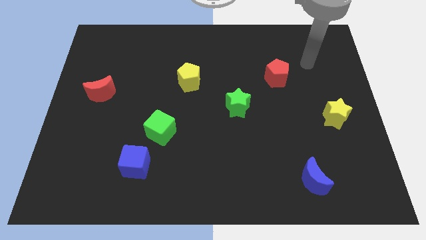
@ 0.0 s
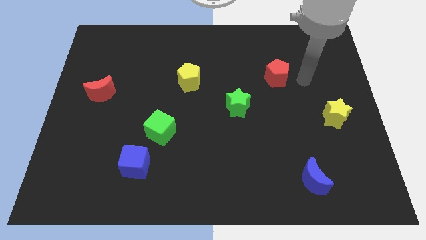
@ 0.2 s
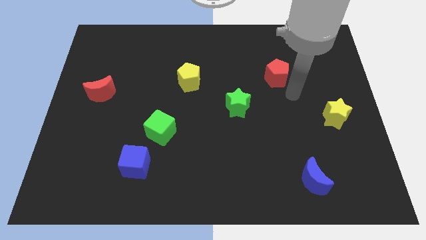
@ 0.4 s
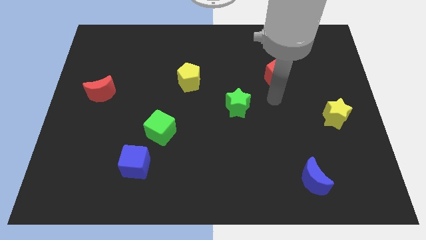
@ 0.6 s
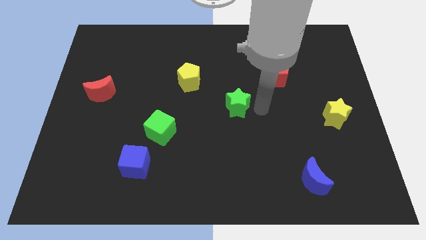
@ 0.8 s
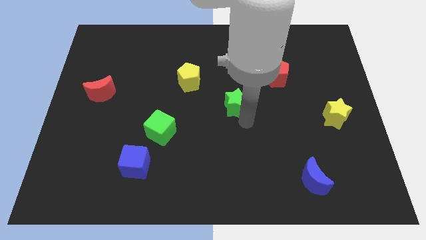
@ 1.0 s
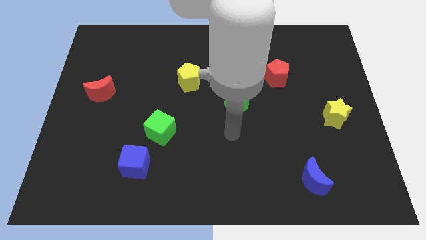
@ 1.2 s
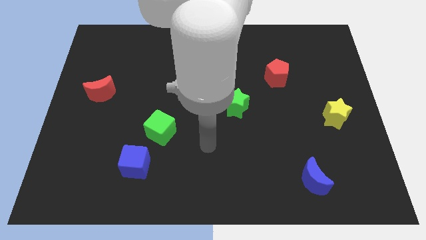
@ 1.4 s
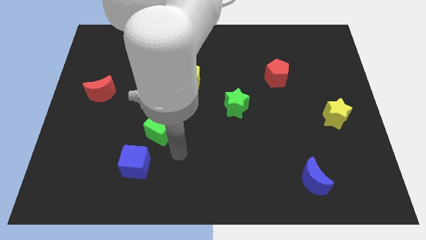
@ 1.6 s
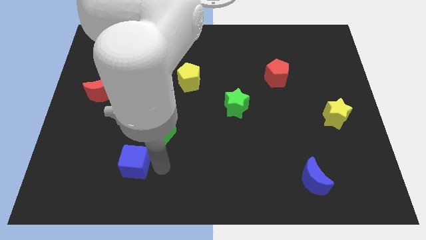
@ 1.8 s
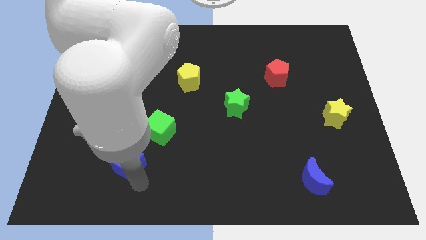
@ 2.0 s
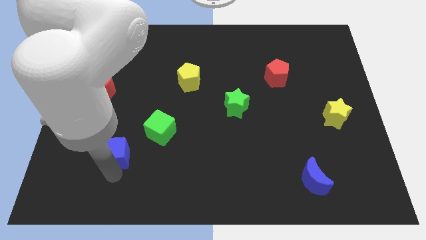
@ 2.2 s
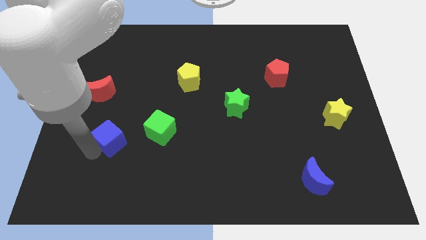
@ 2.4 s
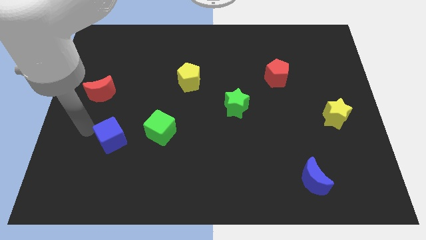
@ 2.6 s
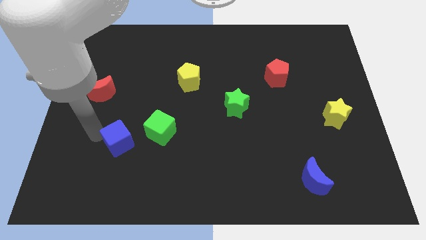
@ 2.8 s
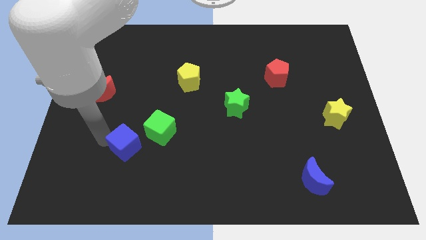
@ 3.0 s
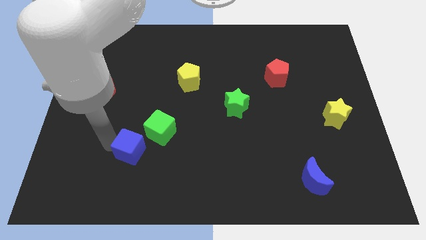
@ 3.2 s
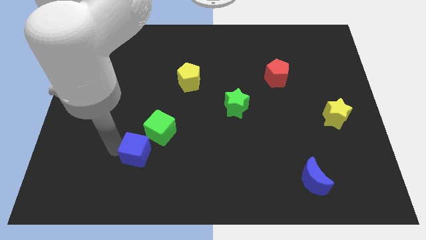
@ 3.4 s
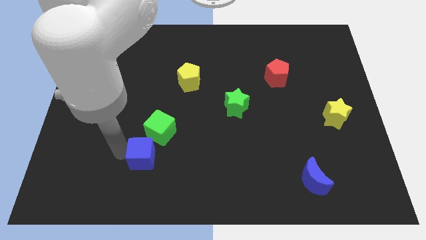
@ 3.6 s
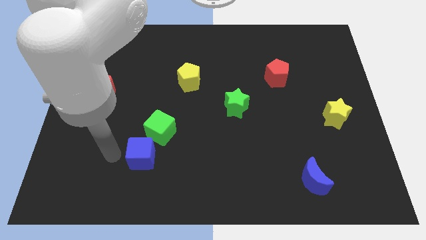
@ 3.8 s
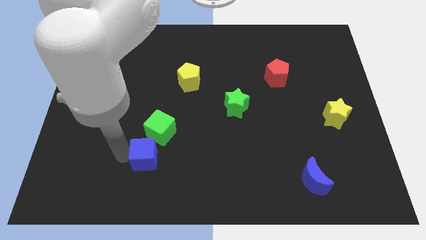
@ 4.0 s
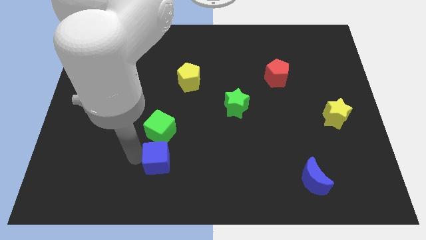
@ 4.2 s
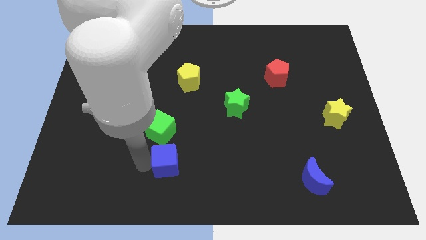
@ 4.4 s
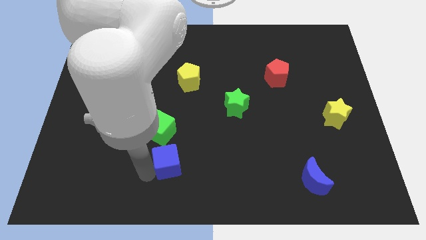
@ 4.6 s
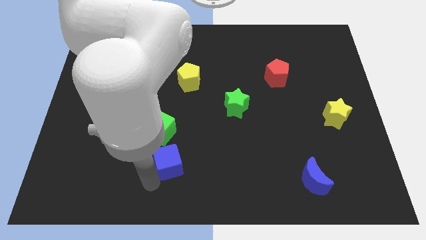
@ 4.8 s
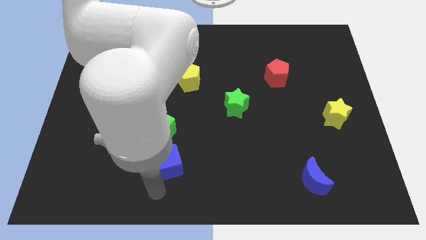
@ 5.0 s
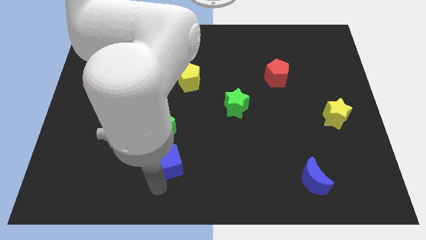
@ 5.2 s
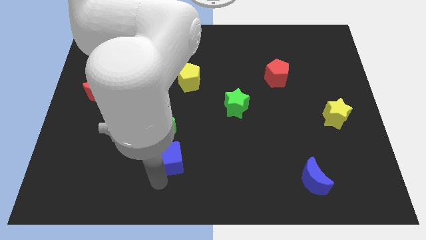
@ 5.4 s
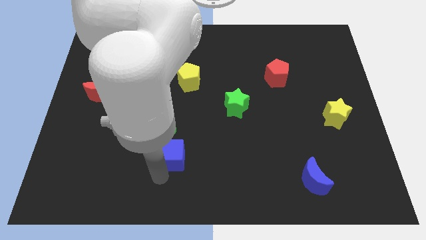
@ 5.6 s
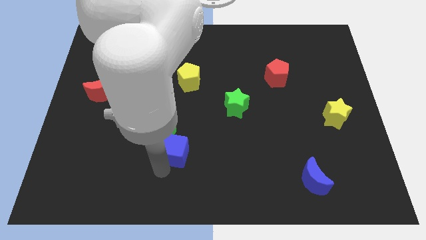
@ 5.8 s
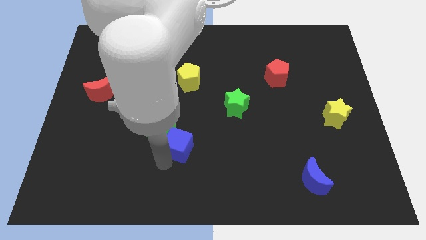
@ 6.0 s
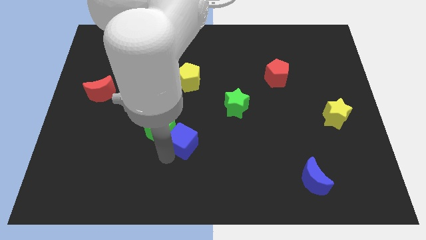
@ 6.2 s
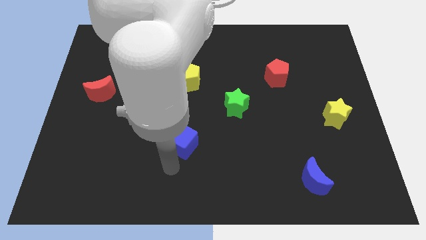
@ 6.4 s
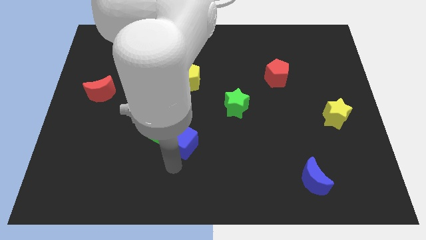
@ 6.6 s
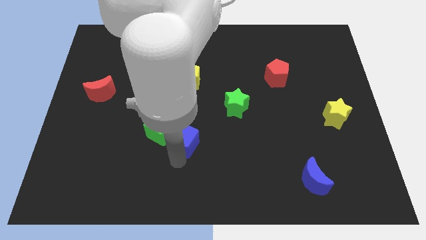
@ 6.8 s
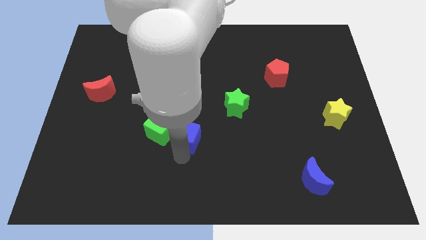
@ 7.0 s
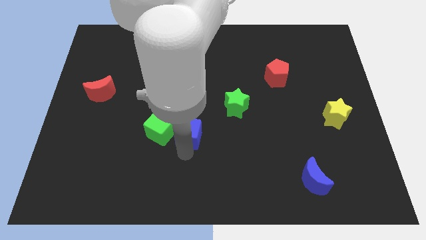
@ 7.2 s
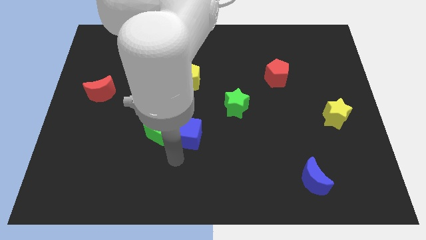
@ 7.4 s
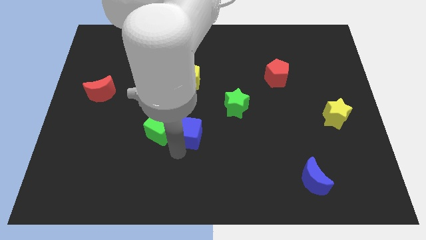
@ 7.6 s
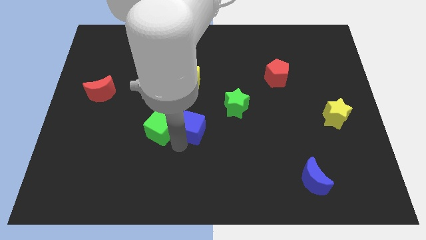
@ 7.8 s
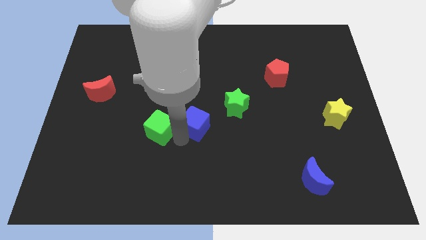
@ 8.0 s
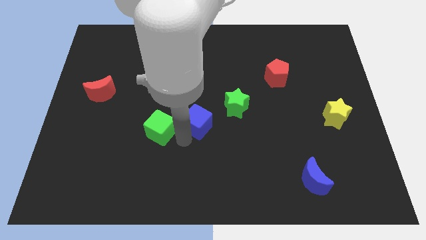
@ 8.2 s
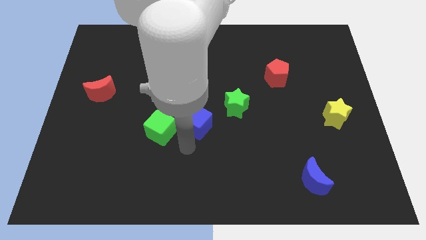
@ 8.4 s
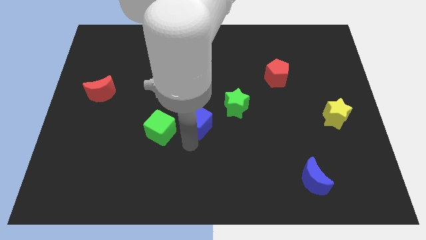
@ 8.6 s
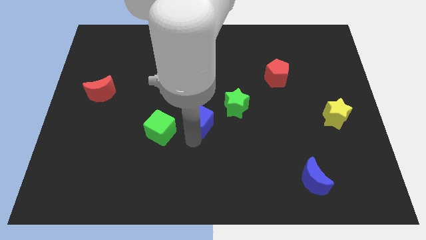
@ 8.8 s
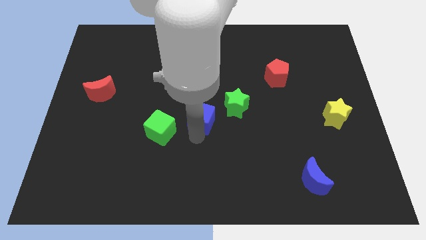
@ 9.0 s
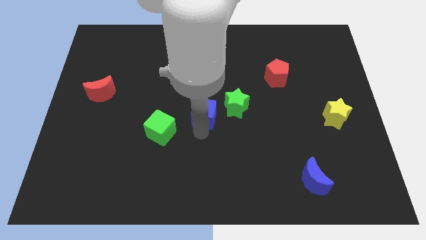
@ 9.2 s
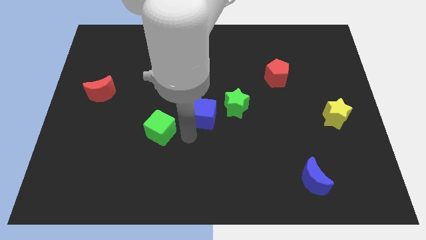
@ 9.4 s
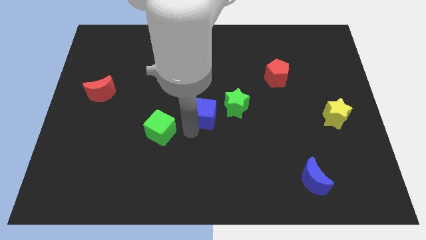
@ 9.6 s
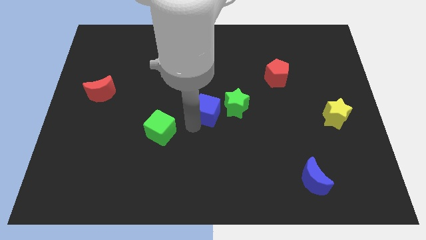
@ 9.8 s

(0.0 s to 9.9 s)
slide the blue cube up and to the right

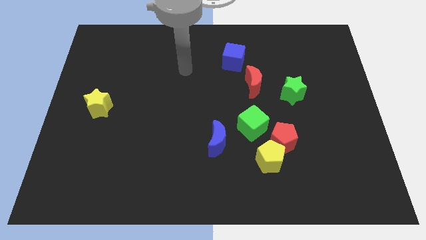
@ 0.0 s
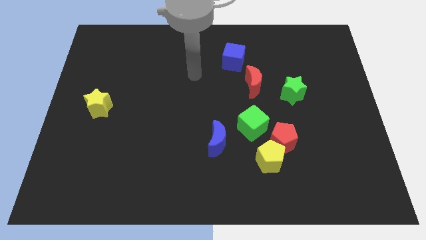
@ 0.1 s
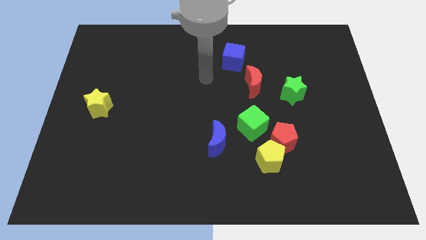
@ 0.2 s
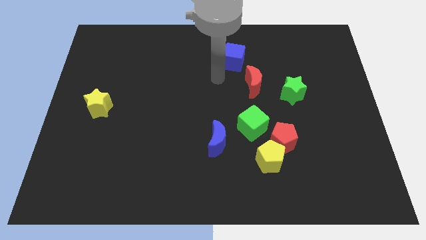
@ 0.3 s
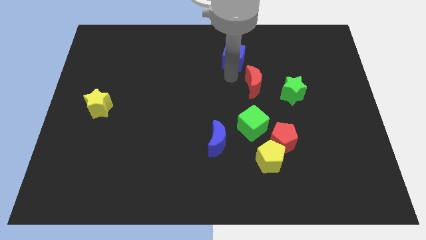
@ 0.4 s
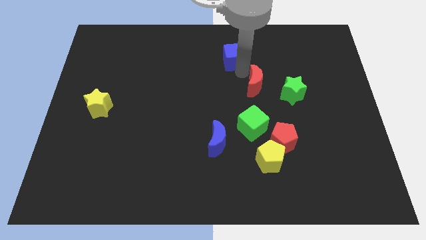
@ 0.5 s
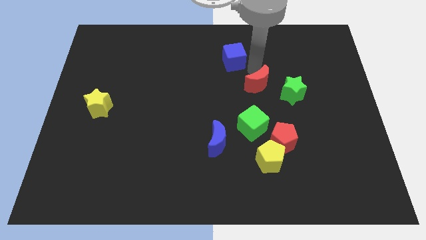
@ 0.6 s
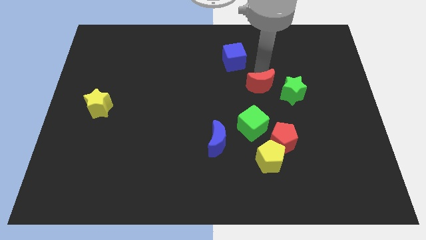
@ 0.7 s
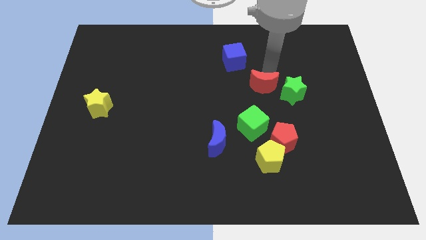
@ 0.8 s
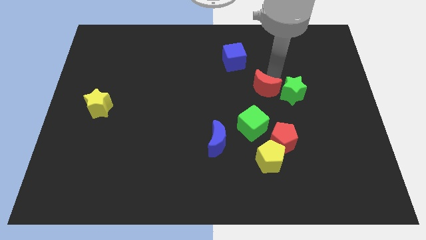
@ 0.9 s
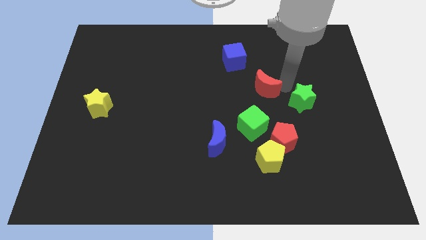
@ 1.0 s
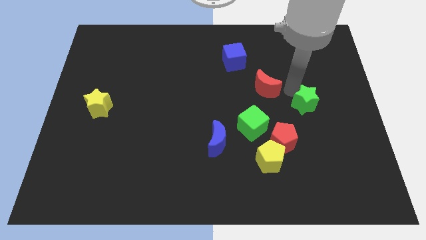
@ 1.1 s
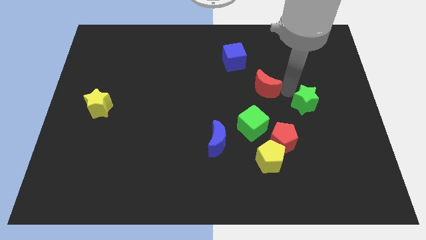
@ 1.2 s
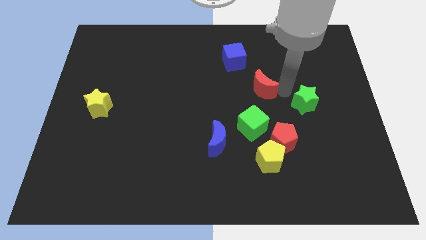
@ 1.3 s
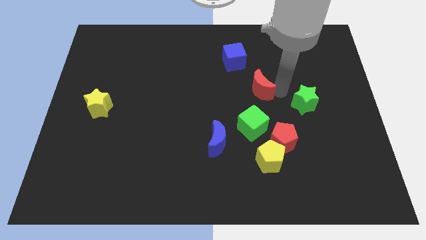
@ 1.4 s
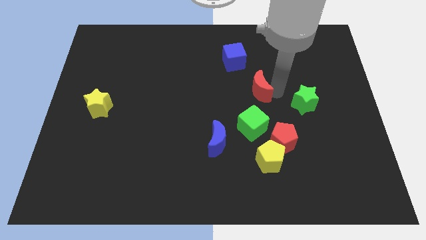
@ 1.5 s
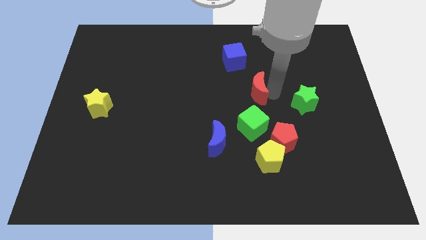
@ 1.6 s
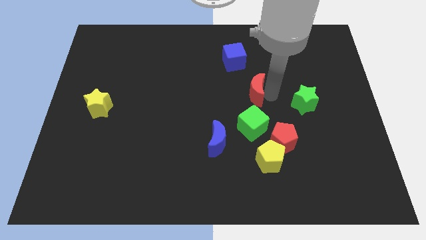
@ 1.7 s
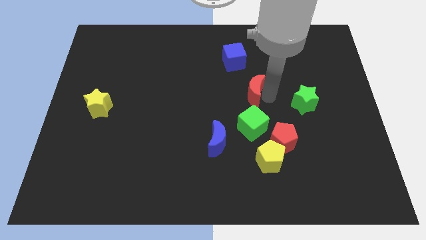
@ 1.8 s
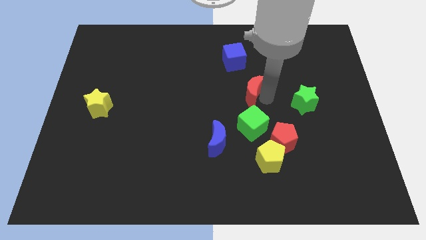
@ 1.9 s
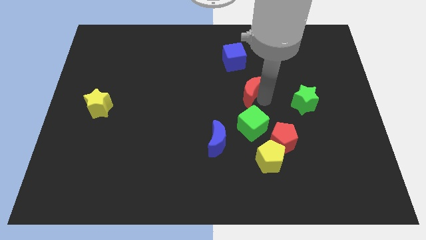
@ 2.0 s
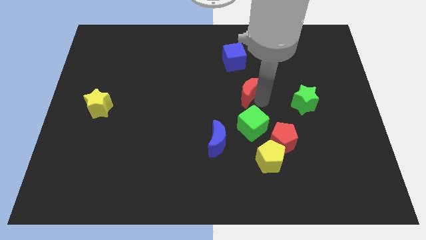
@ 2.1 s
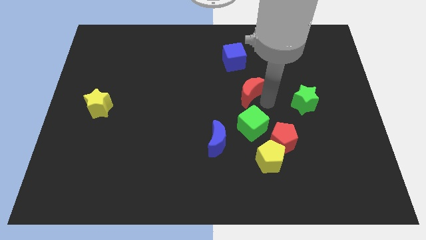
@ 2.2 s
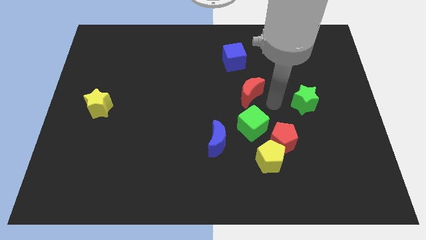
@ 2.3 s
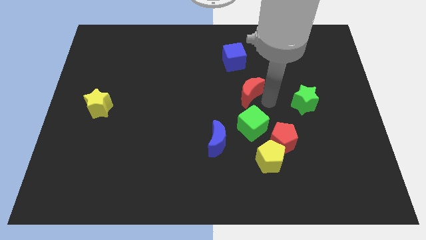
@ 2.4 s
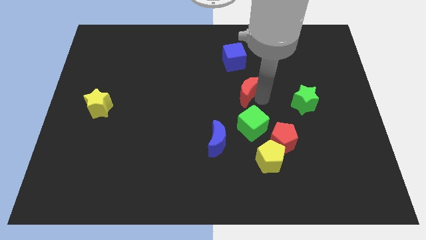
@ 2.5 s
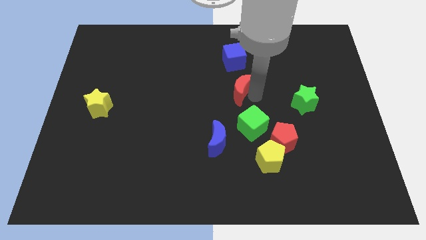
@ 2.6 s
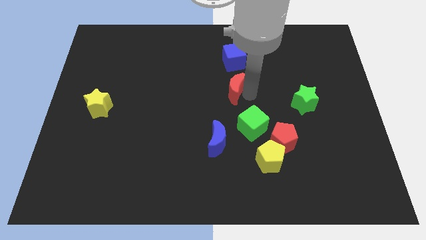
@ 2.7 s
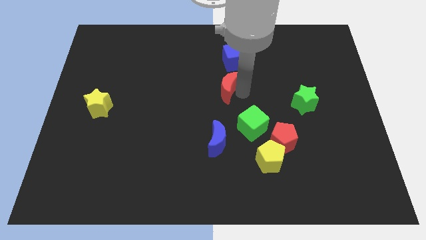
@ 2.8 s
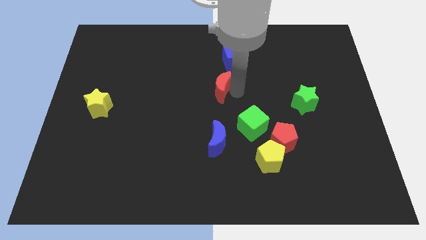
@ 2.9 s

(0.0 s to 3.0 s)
move the red moon to the left slightly
